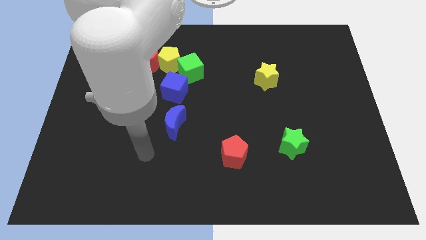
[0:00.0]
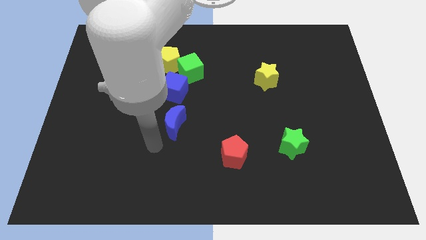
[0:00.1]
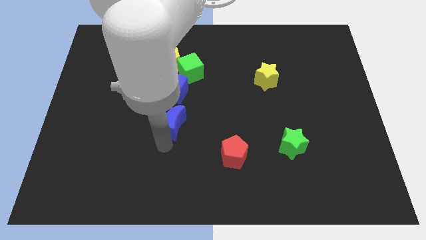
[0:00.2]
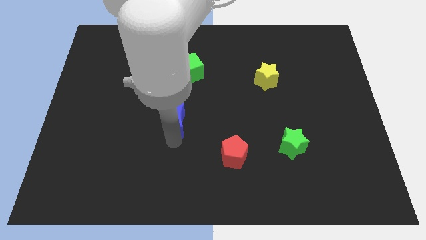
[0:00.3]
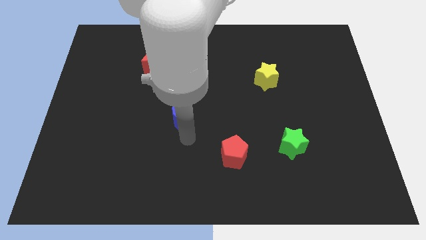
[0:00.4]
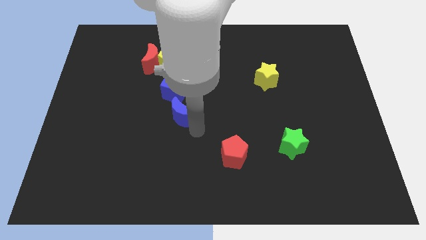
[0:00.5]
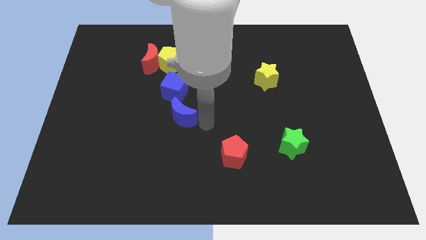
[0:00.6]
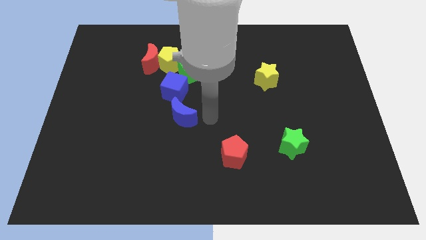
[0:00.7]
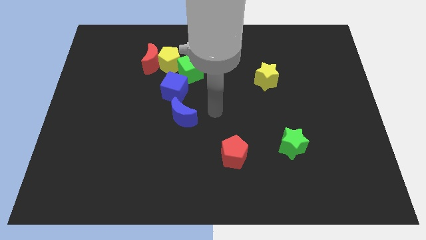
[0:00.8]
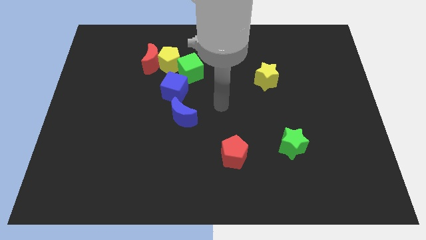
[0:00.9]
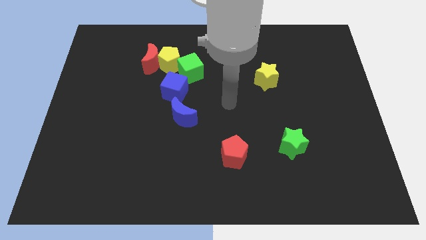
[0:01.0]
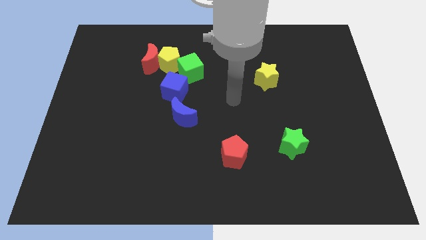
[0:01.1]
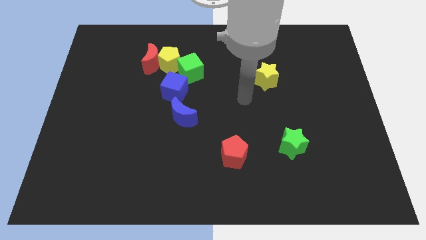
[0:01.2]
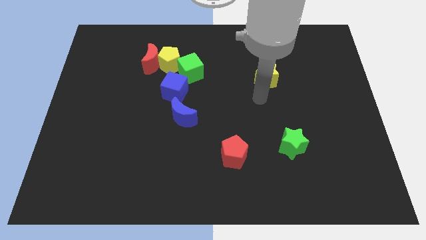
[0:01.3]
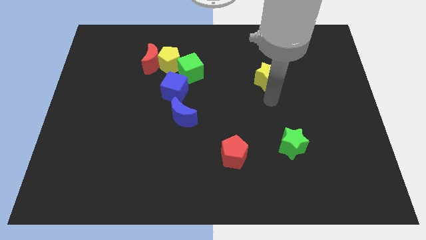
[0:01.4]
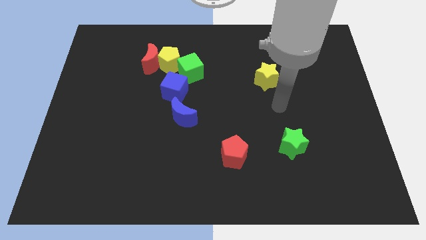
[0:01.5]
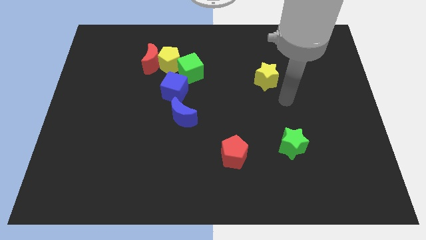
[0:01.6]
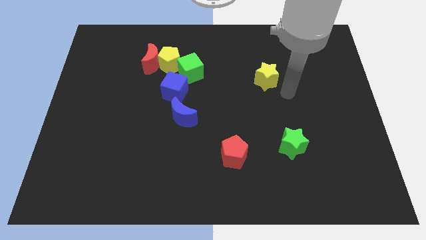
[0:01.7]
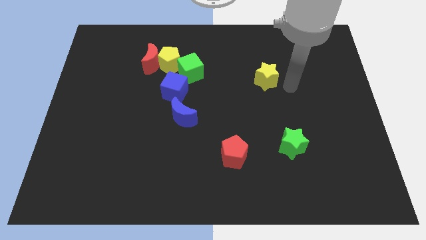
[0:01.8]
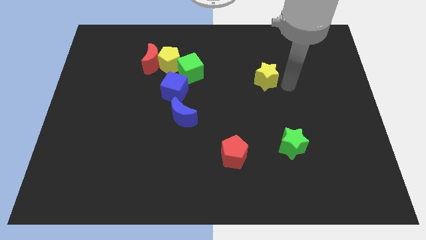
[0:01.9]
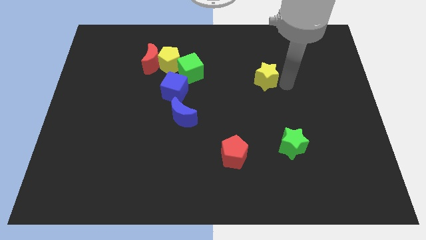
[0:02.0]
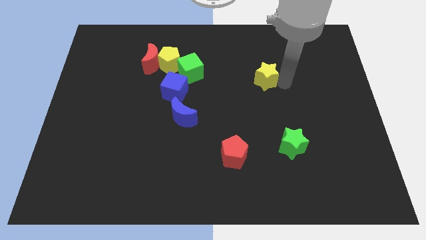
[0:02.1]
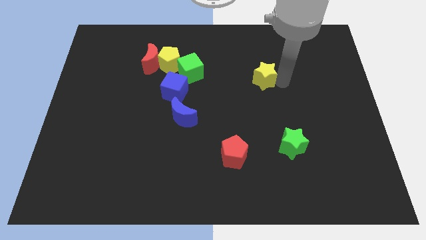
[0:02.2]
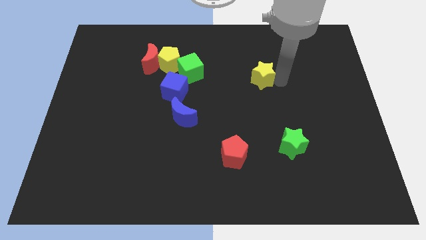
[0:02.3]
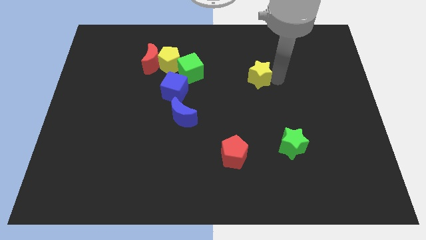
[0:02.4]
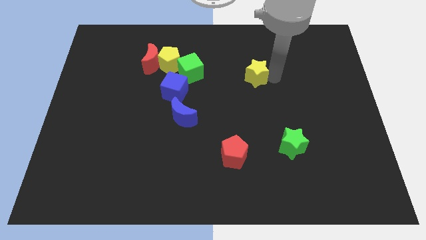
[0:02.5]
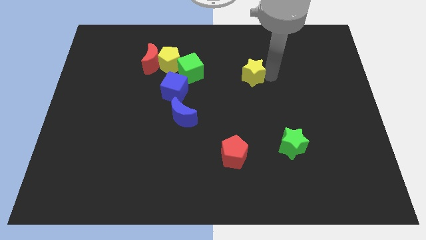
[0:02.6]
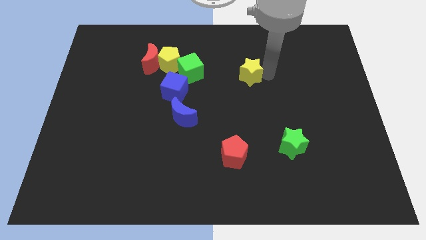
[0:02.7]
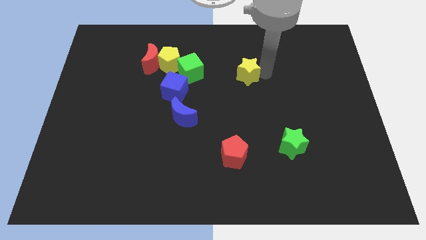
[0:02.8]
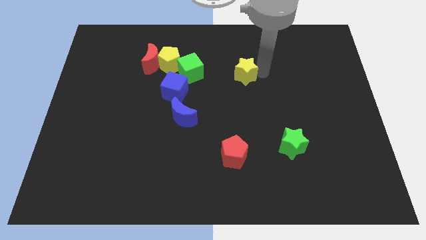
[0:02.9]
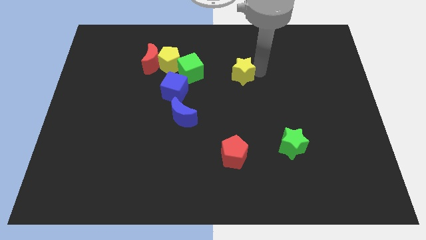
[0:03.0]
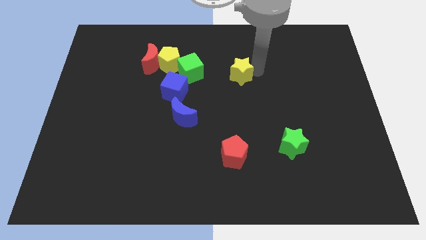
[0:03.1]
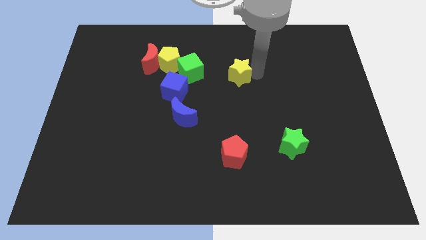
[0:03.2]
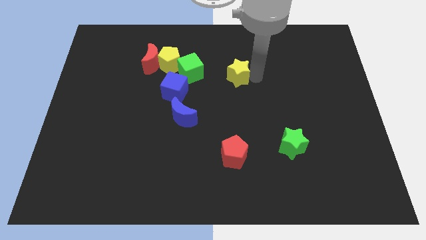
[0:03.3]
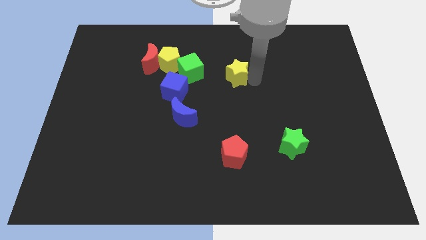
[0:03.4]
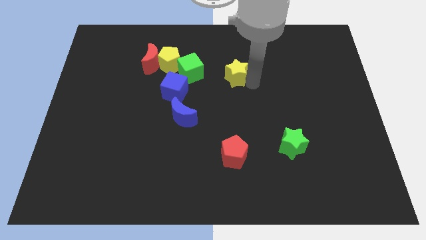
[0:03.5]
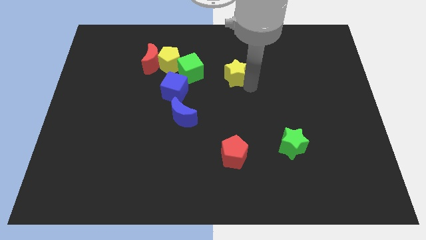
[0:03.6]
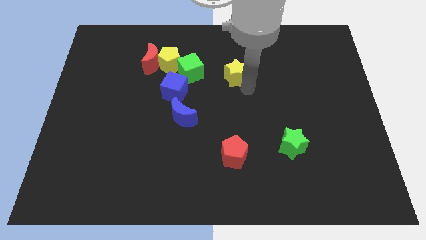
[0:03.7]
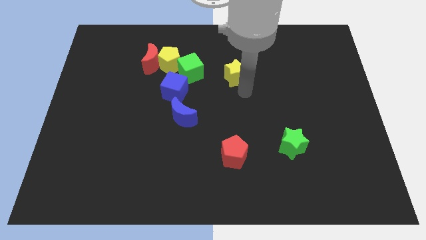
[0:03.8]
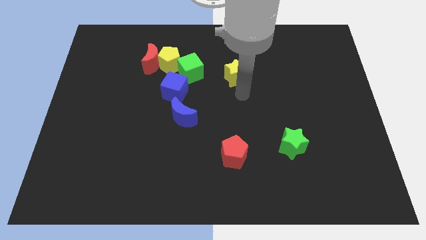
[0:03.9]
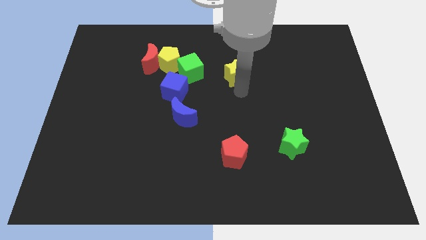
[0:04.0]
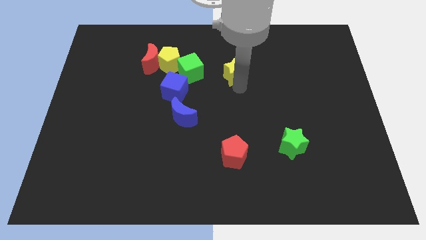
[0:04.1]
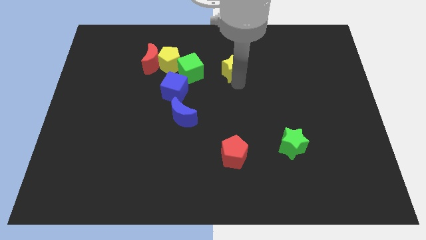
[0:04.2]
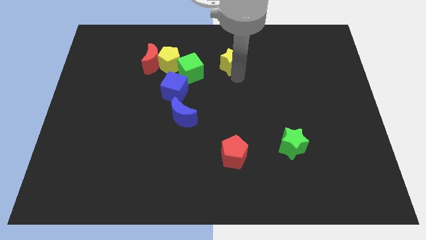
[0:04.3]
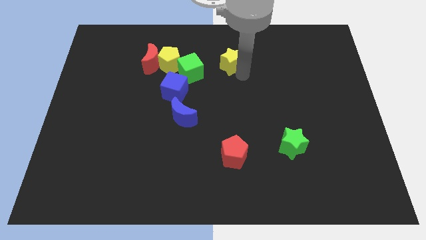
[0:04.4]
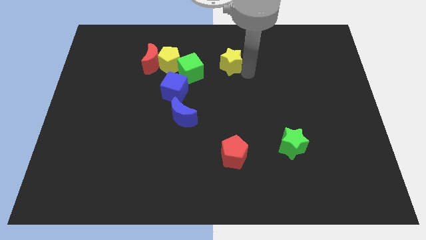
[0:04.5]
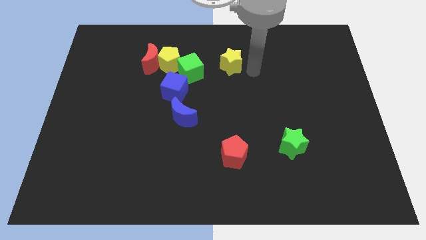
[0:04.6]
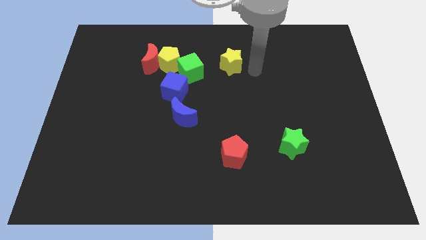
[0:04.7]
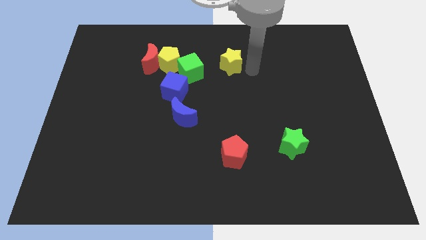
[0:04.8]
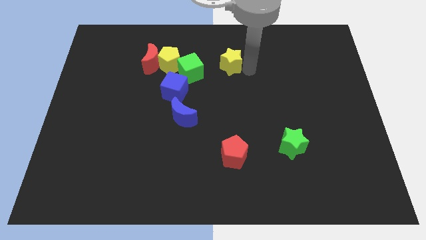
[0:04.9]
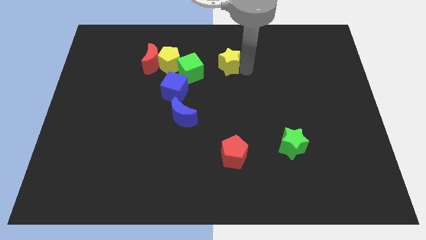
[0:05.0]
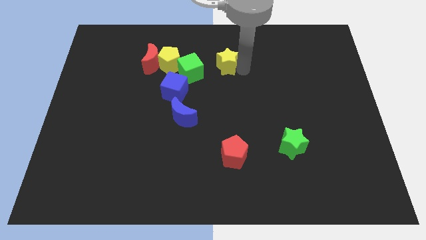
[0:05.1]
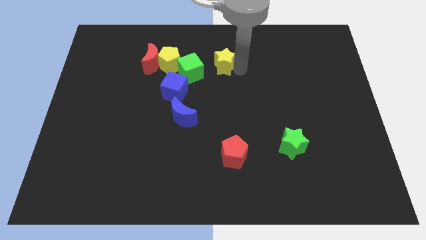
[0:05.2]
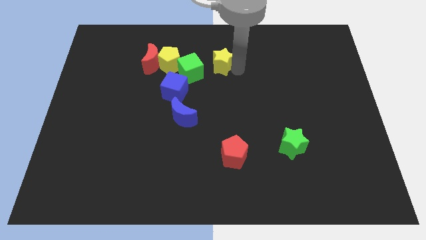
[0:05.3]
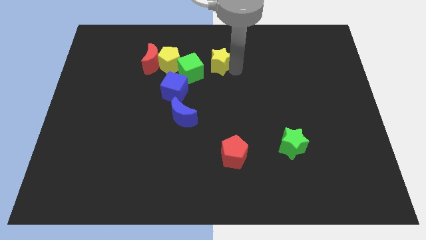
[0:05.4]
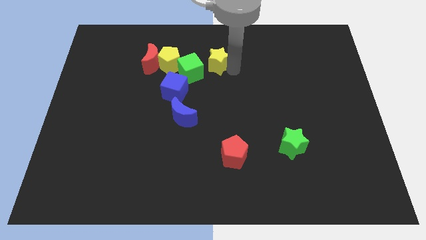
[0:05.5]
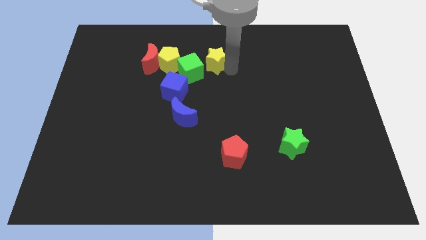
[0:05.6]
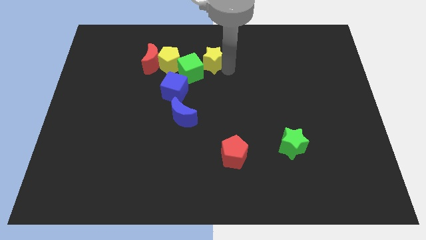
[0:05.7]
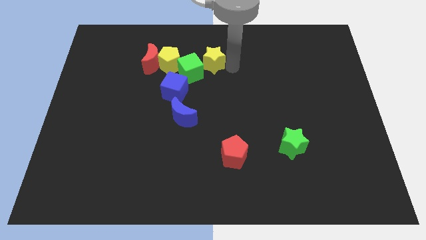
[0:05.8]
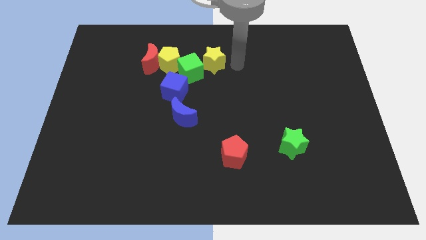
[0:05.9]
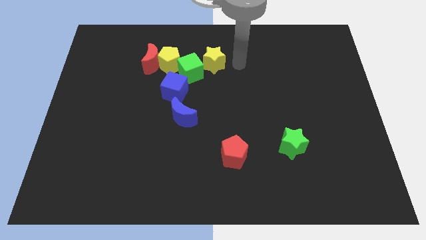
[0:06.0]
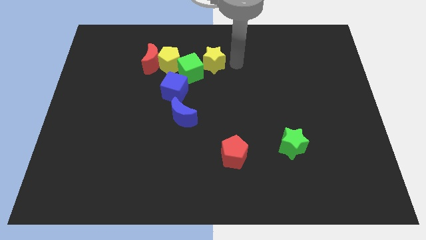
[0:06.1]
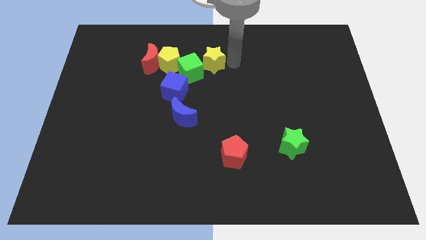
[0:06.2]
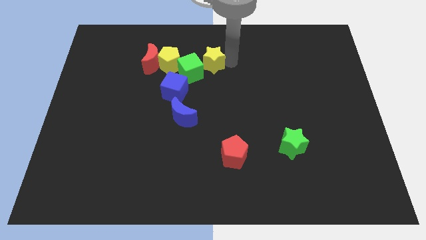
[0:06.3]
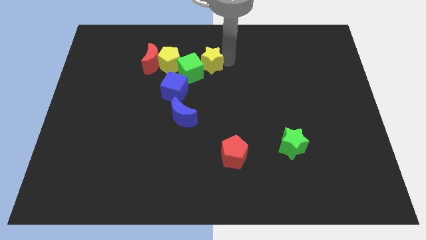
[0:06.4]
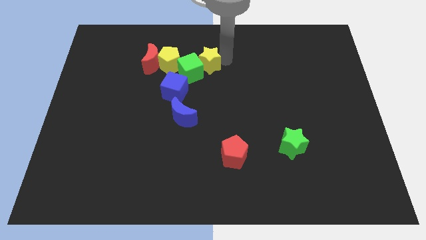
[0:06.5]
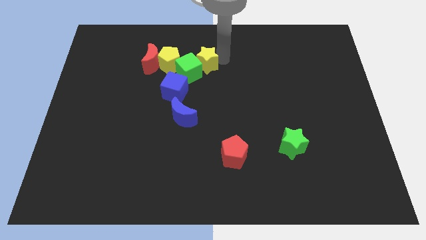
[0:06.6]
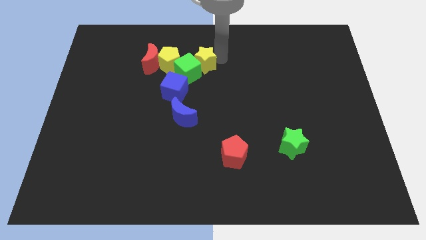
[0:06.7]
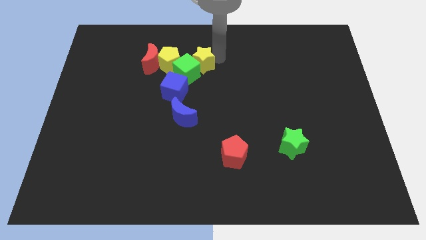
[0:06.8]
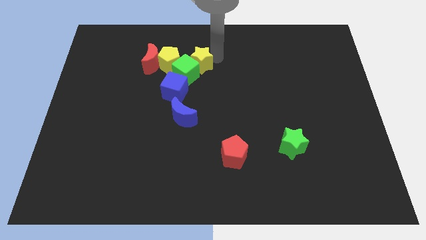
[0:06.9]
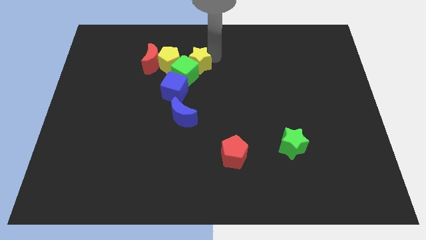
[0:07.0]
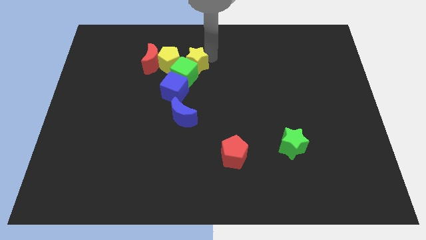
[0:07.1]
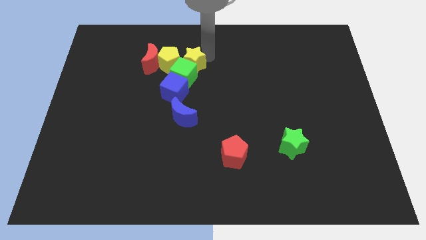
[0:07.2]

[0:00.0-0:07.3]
push the yellow star towards the yellow pentagon

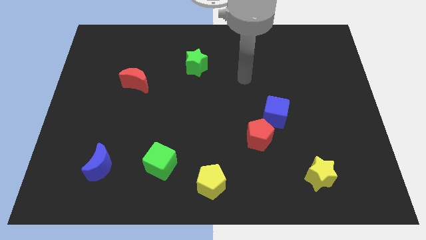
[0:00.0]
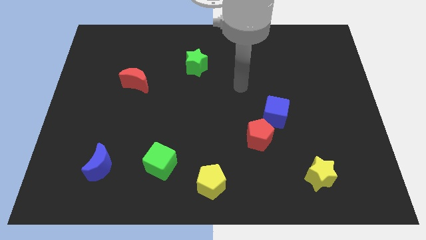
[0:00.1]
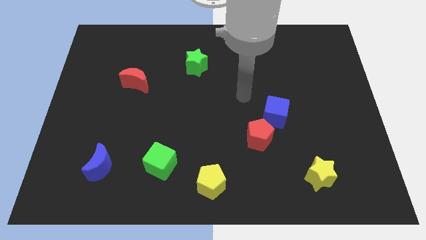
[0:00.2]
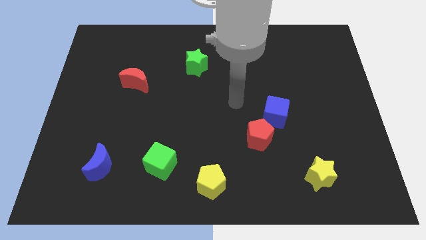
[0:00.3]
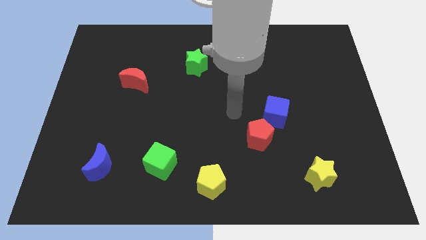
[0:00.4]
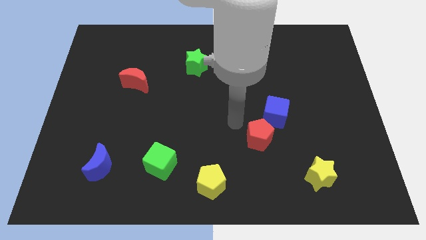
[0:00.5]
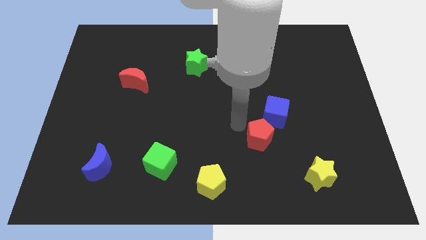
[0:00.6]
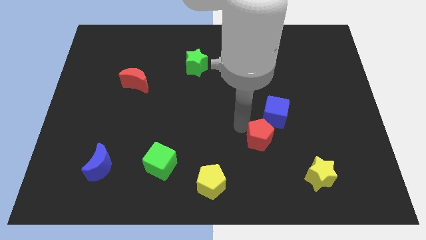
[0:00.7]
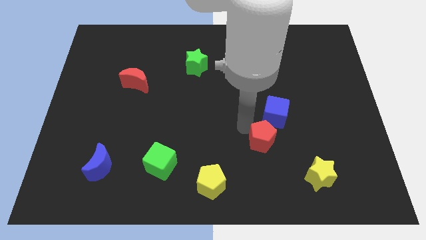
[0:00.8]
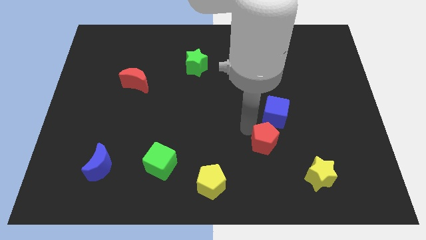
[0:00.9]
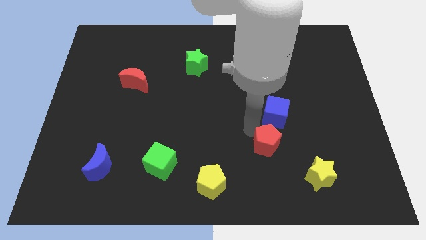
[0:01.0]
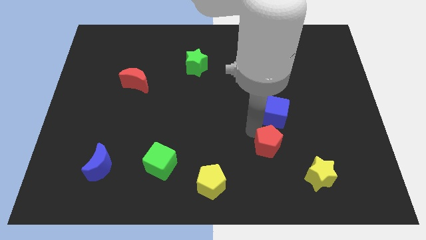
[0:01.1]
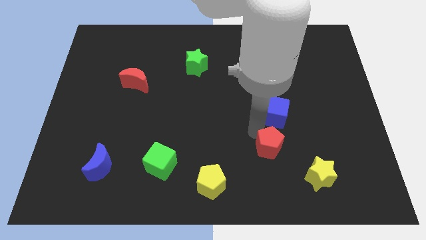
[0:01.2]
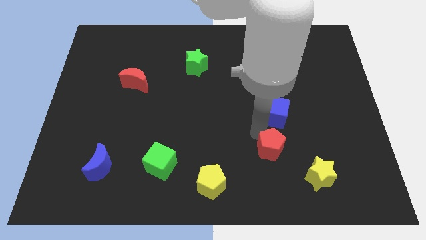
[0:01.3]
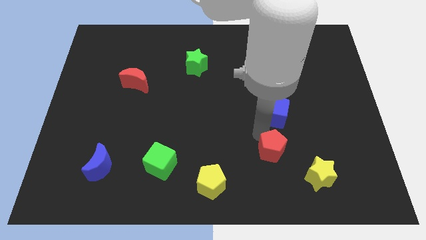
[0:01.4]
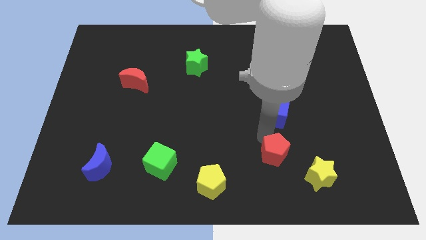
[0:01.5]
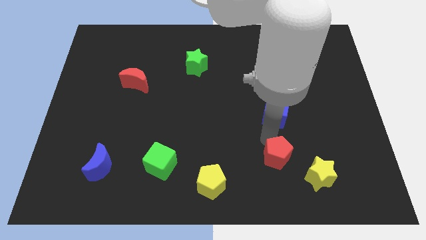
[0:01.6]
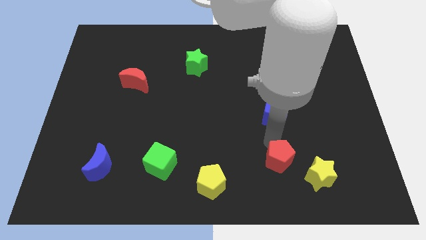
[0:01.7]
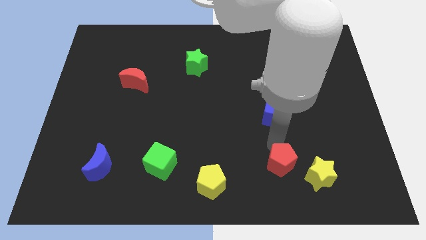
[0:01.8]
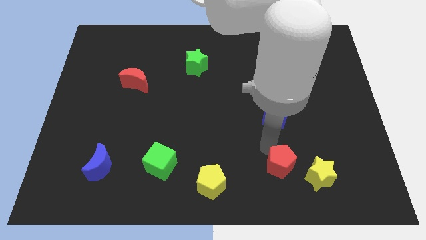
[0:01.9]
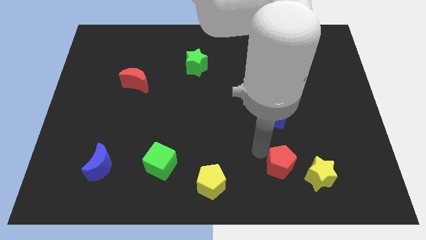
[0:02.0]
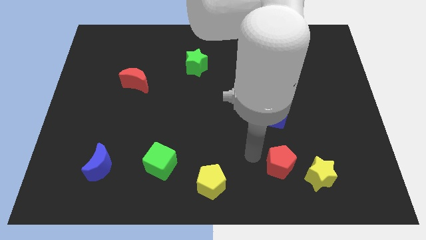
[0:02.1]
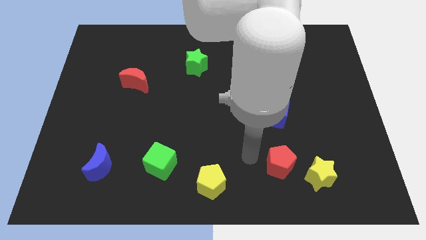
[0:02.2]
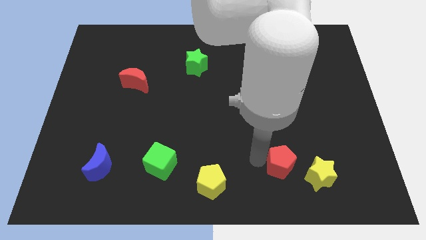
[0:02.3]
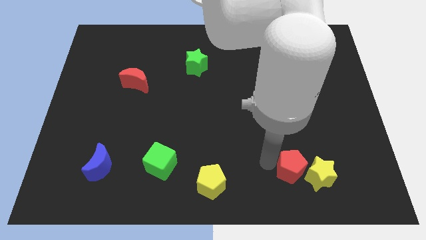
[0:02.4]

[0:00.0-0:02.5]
move the red pentagon next to the yellow star
